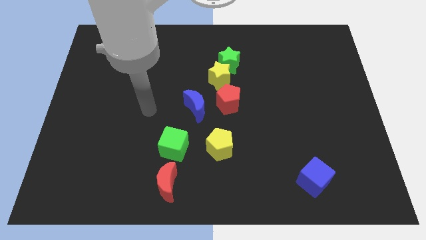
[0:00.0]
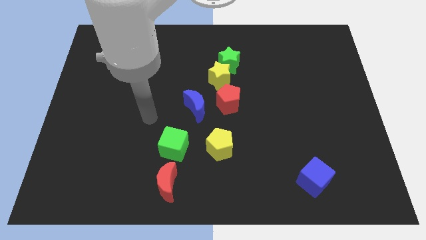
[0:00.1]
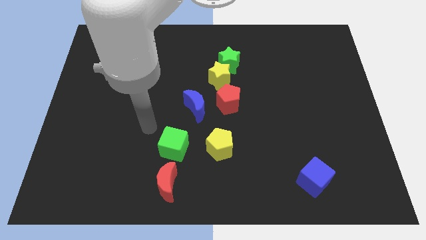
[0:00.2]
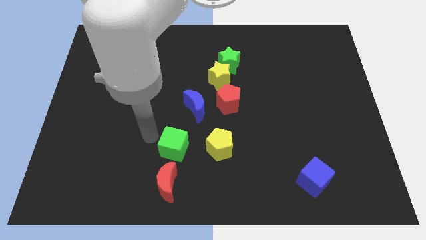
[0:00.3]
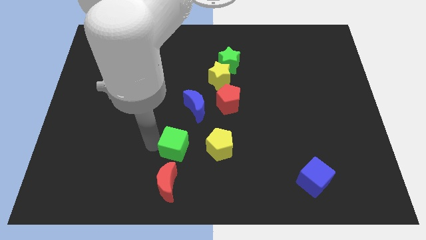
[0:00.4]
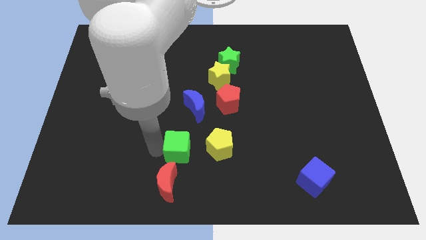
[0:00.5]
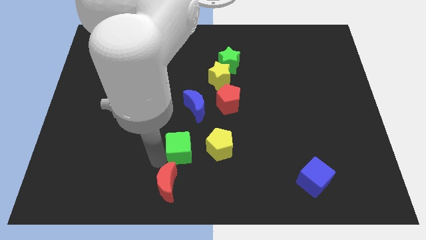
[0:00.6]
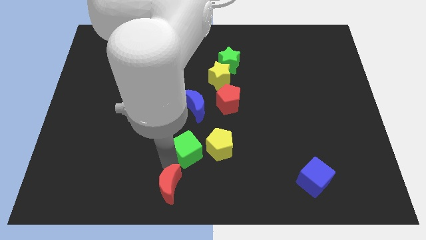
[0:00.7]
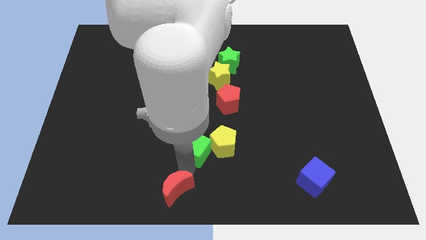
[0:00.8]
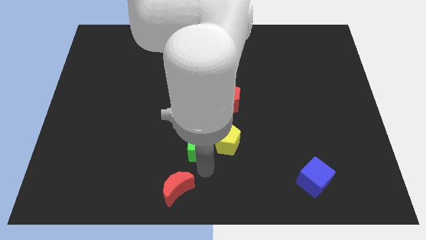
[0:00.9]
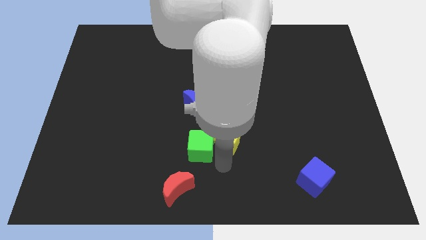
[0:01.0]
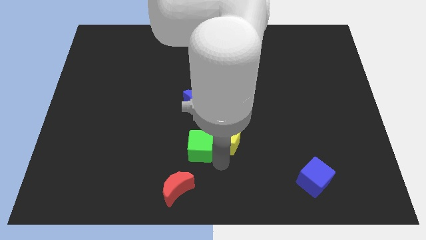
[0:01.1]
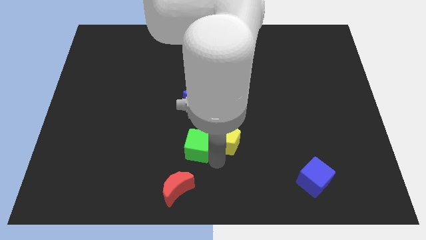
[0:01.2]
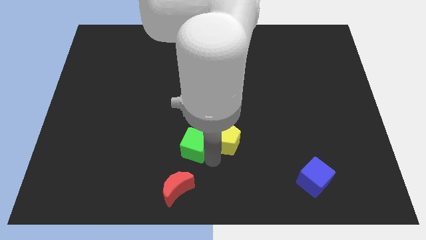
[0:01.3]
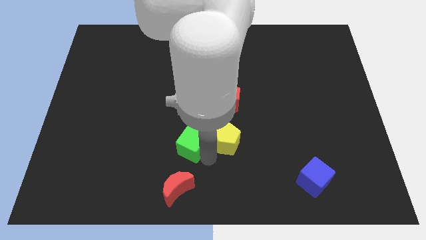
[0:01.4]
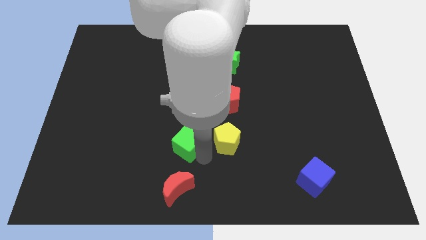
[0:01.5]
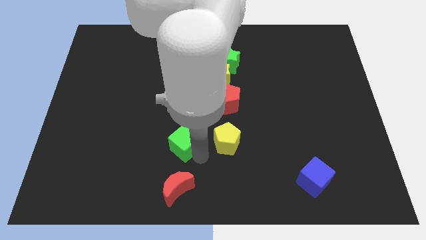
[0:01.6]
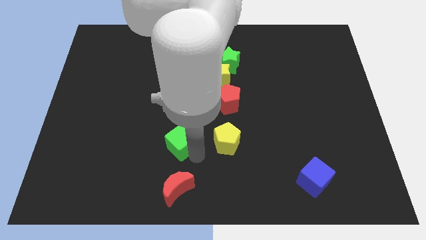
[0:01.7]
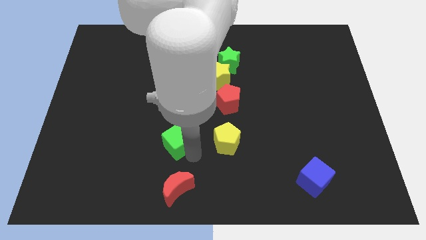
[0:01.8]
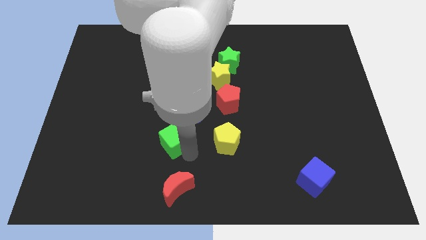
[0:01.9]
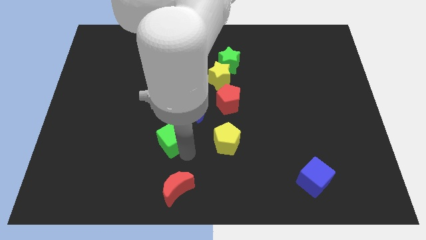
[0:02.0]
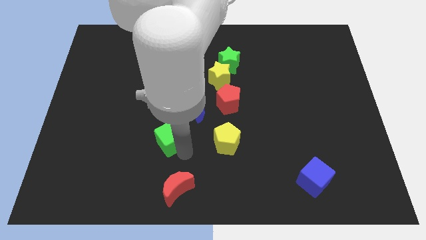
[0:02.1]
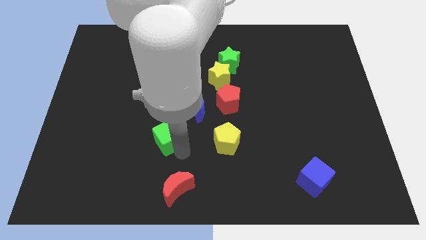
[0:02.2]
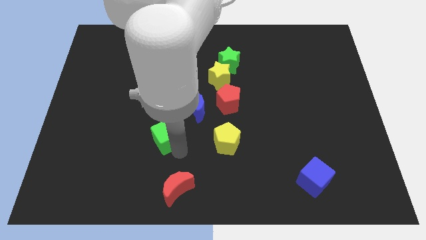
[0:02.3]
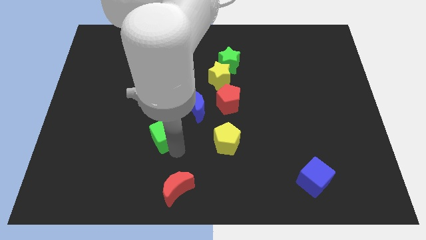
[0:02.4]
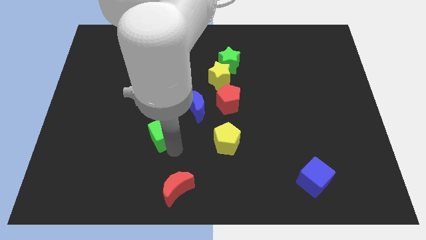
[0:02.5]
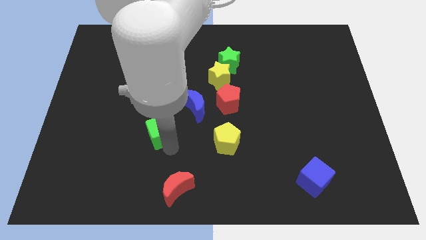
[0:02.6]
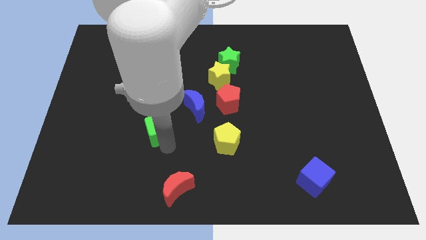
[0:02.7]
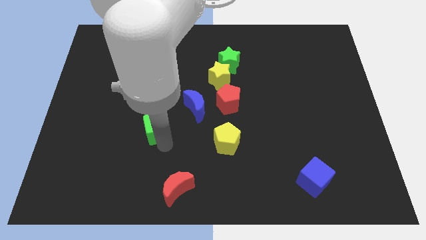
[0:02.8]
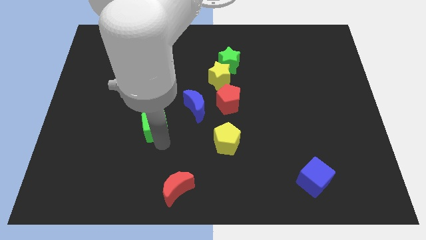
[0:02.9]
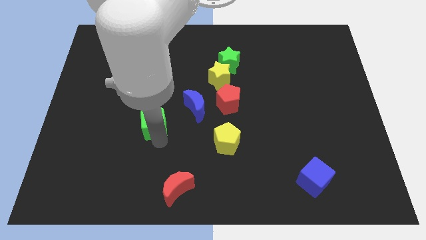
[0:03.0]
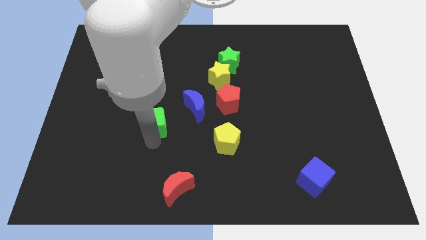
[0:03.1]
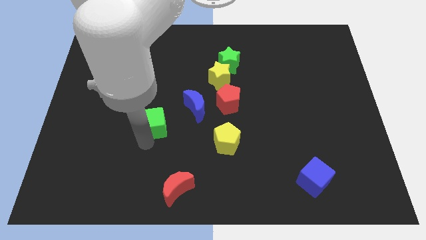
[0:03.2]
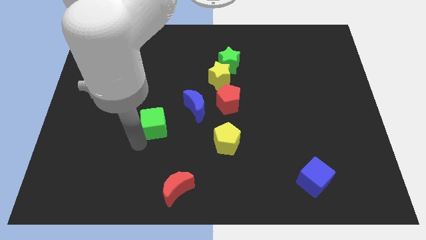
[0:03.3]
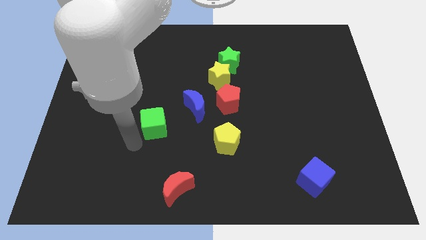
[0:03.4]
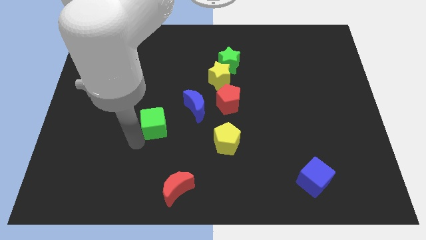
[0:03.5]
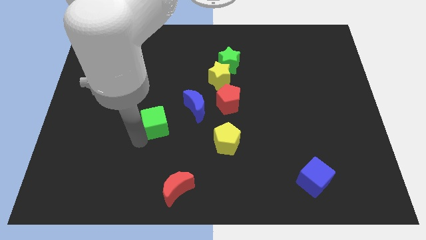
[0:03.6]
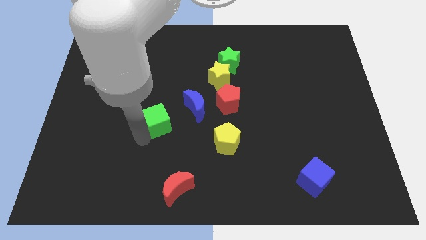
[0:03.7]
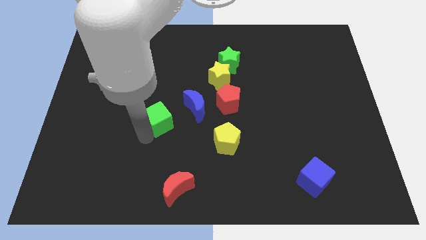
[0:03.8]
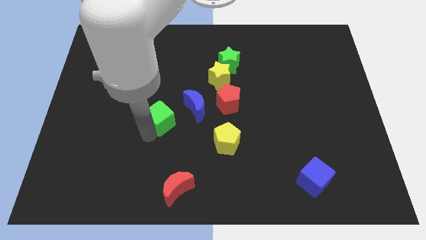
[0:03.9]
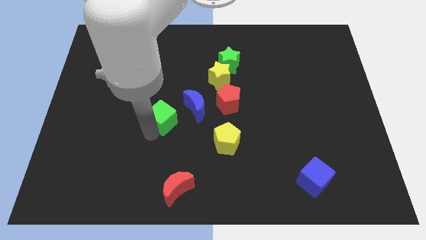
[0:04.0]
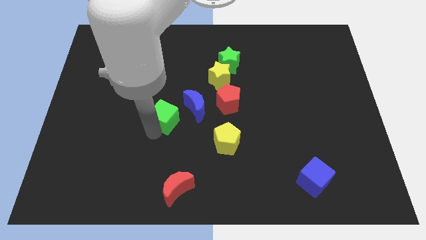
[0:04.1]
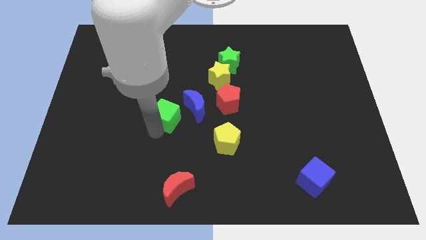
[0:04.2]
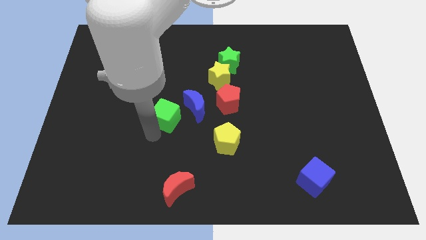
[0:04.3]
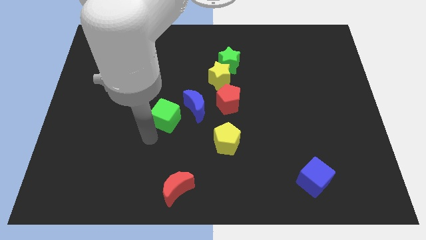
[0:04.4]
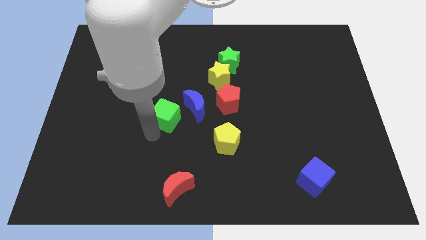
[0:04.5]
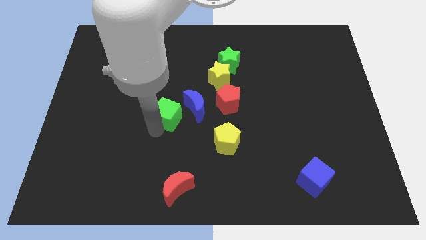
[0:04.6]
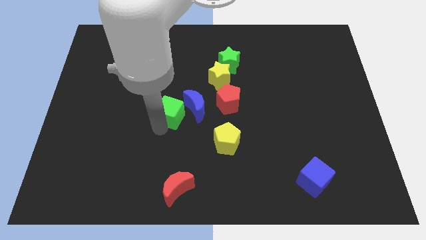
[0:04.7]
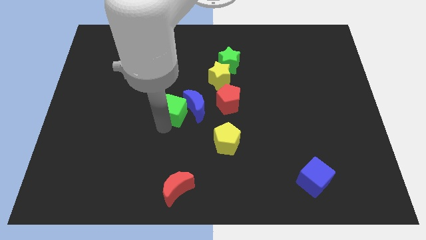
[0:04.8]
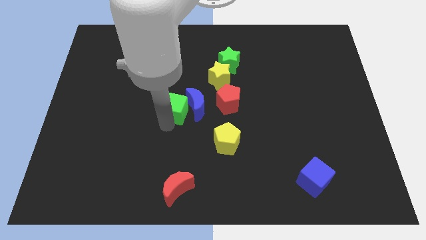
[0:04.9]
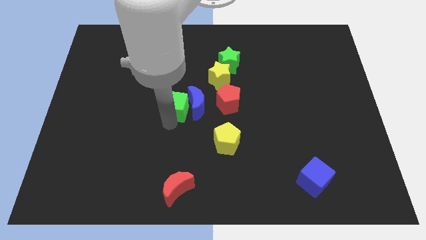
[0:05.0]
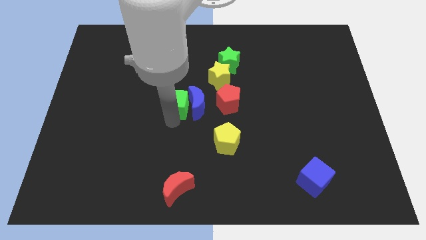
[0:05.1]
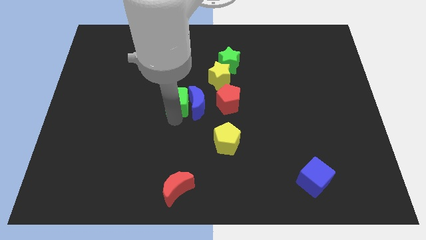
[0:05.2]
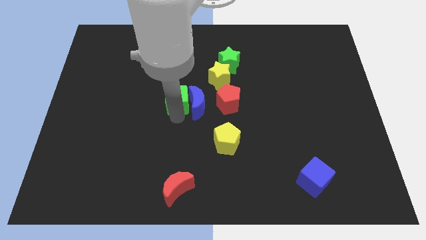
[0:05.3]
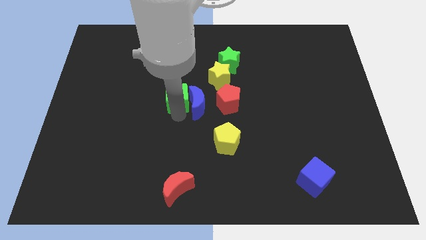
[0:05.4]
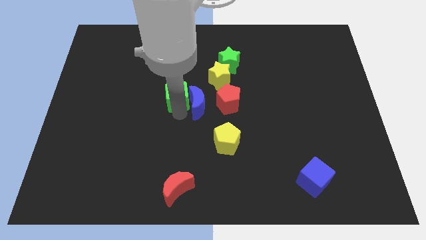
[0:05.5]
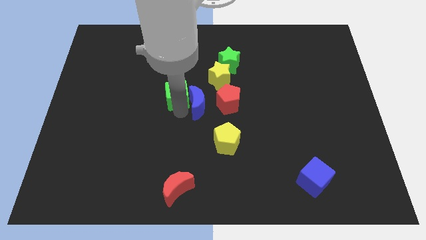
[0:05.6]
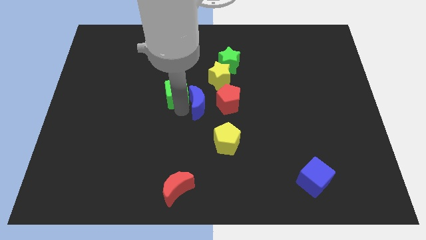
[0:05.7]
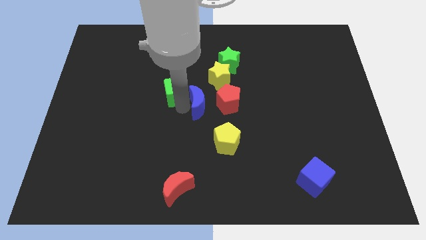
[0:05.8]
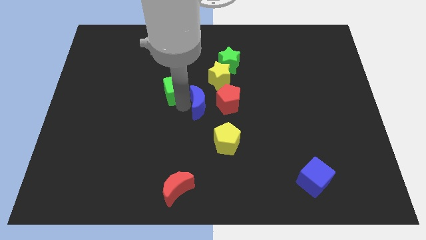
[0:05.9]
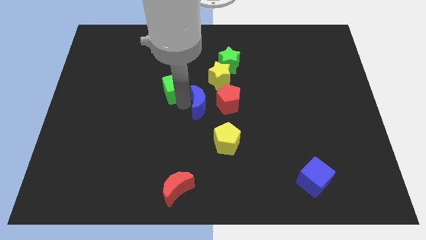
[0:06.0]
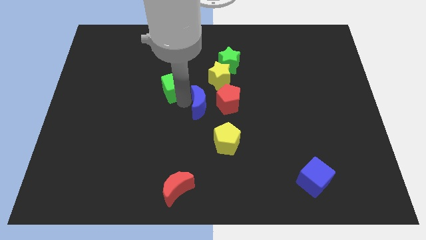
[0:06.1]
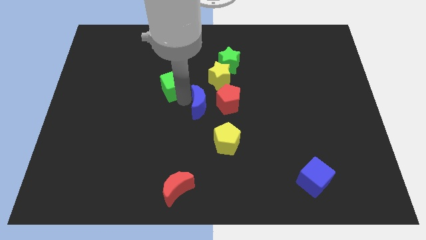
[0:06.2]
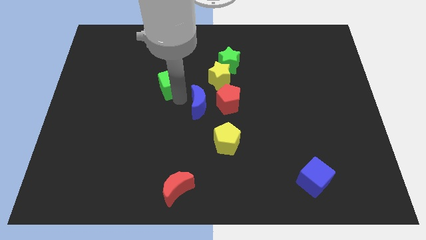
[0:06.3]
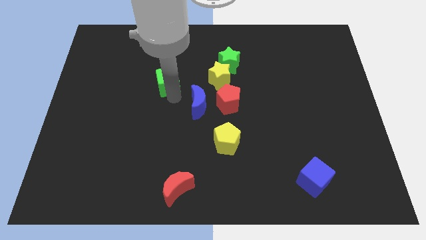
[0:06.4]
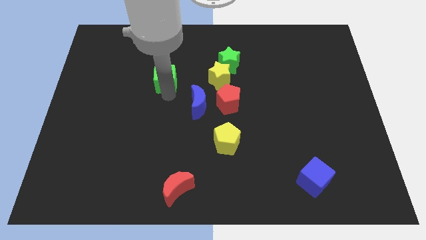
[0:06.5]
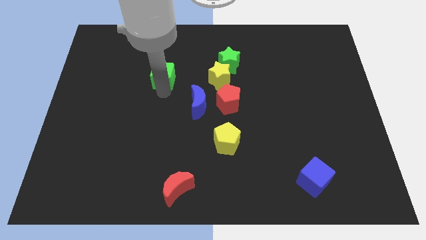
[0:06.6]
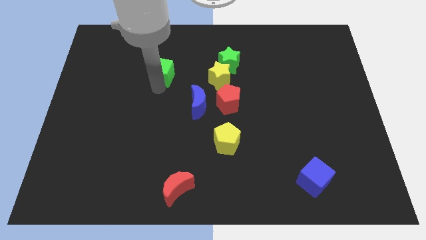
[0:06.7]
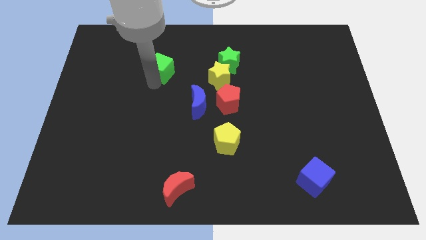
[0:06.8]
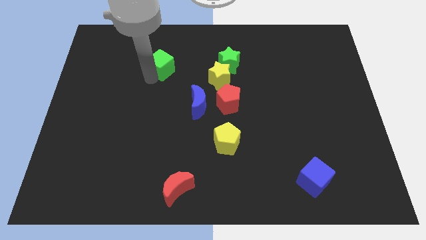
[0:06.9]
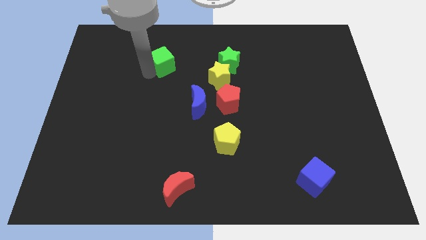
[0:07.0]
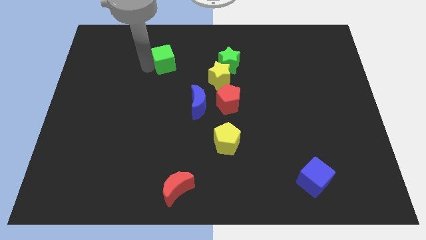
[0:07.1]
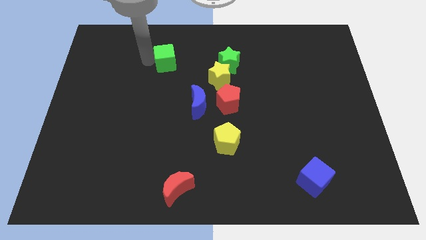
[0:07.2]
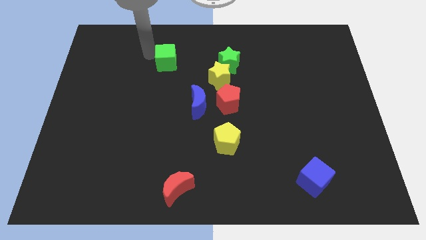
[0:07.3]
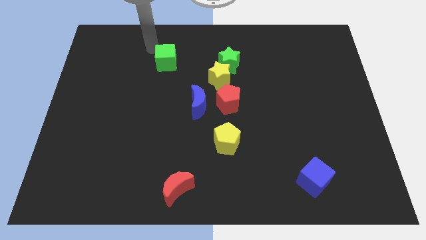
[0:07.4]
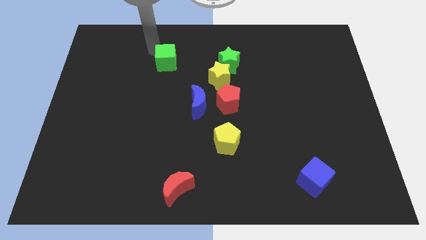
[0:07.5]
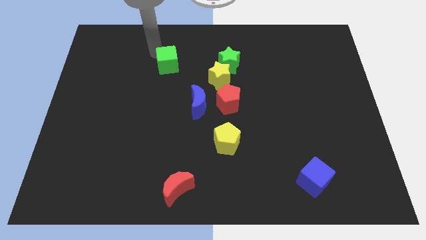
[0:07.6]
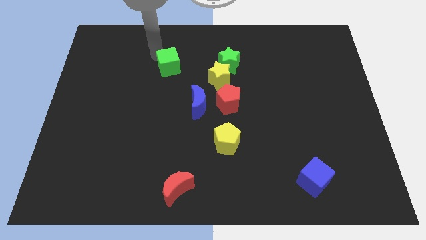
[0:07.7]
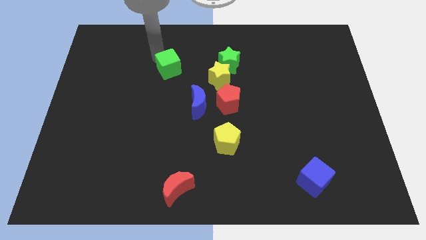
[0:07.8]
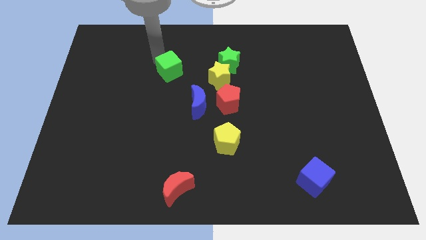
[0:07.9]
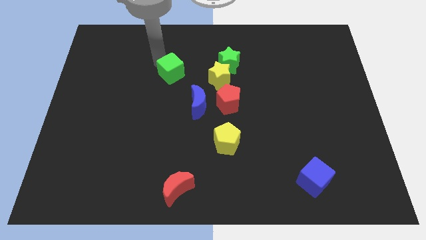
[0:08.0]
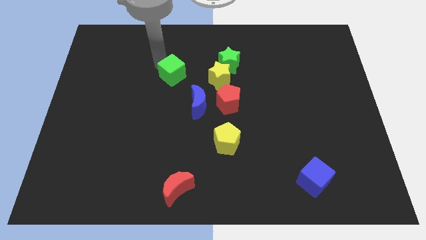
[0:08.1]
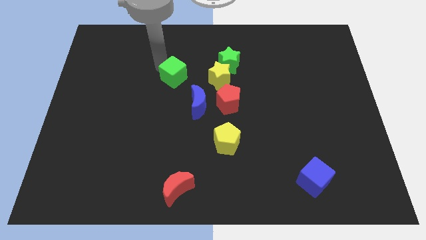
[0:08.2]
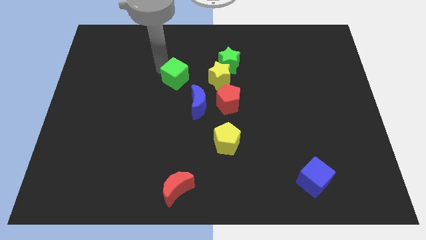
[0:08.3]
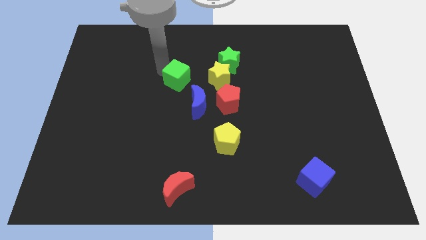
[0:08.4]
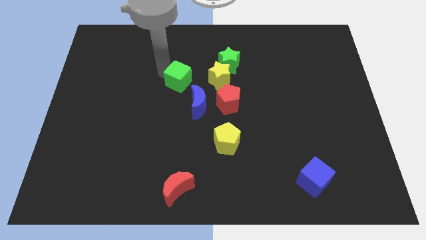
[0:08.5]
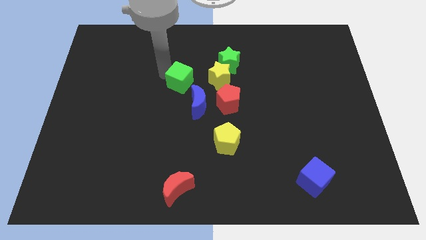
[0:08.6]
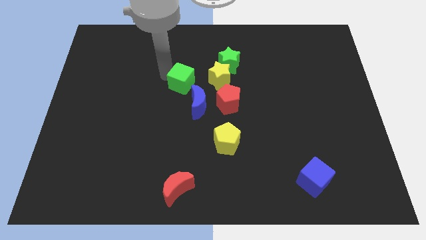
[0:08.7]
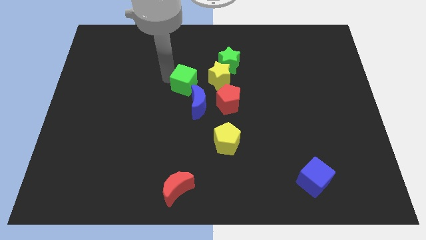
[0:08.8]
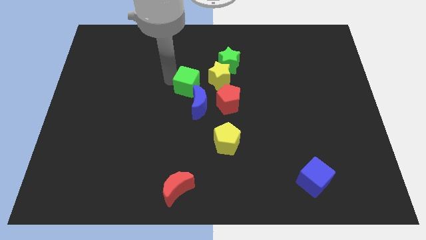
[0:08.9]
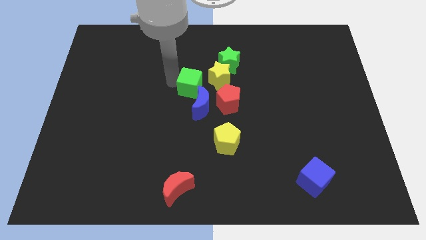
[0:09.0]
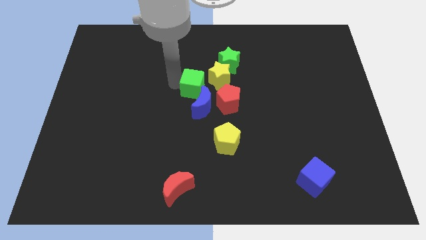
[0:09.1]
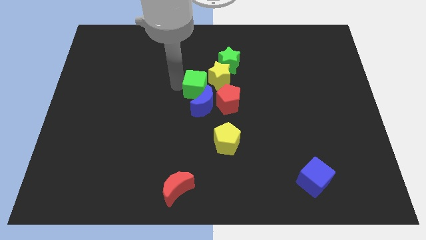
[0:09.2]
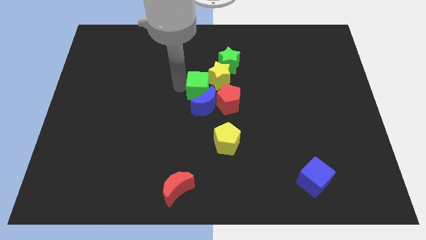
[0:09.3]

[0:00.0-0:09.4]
slide the green cube to the yellow star
